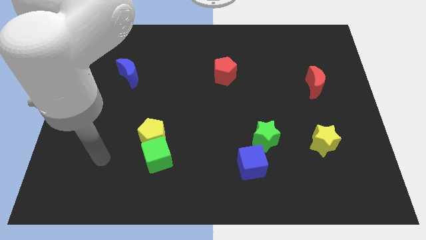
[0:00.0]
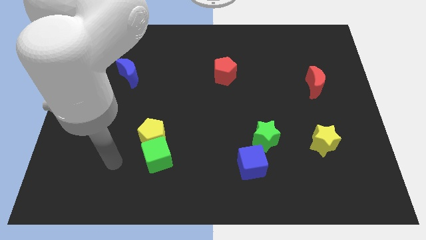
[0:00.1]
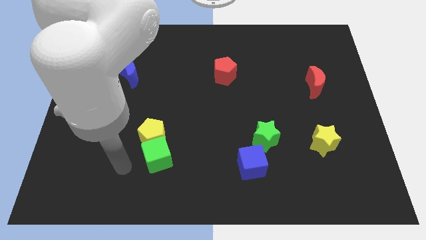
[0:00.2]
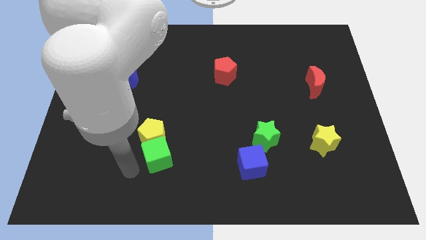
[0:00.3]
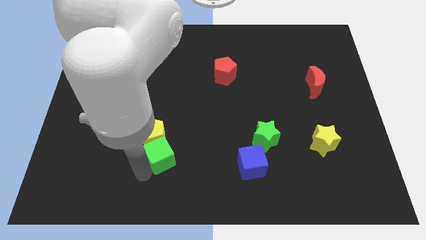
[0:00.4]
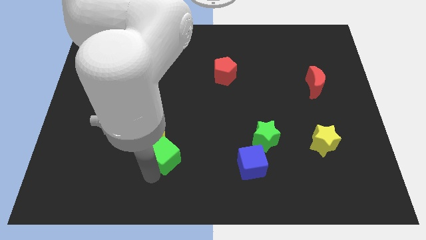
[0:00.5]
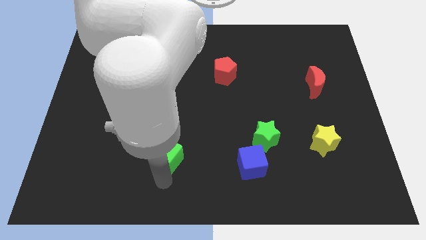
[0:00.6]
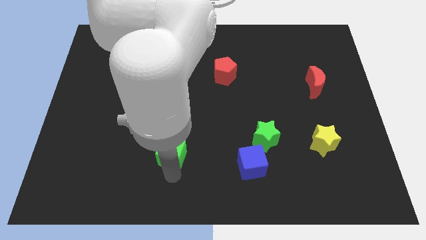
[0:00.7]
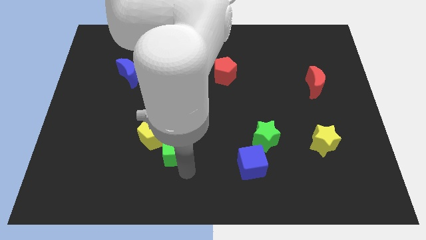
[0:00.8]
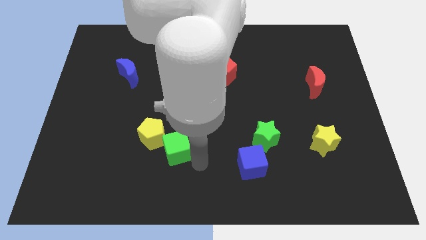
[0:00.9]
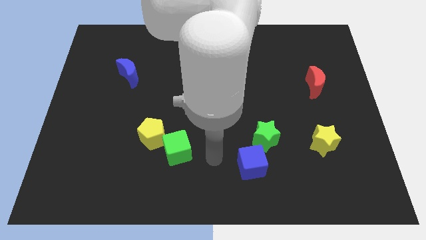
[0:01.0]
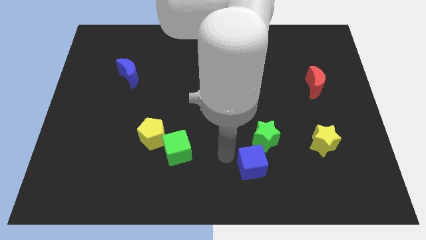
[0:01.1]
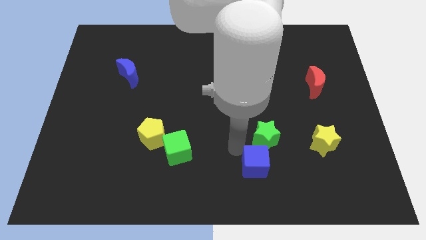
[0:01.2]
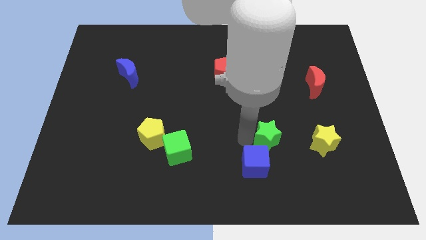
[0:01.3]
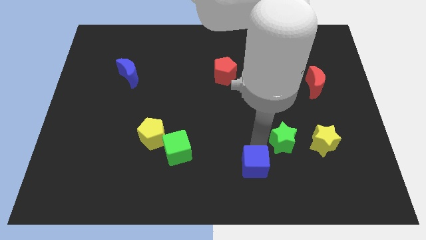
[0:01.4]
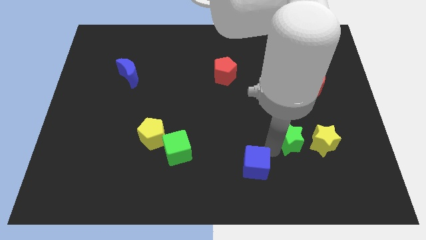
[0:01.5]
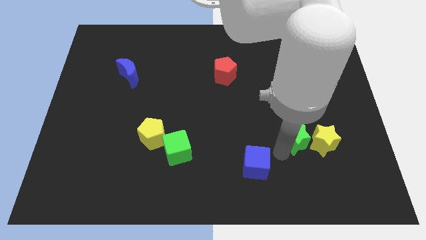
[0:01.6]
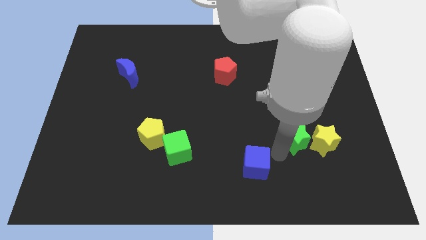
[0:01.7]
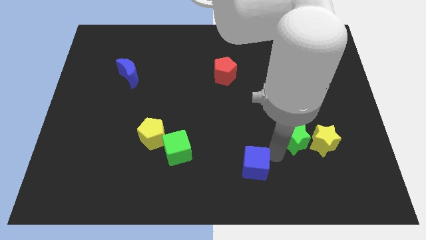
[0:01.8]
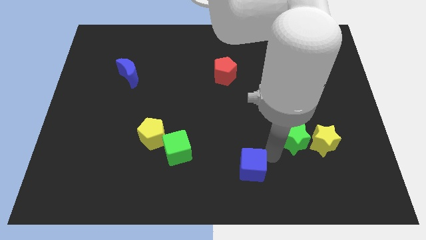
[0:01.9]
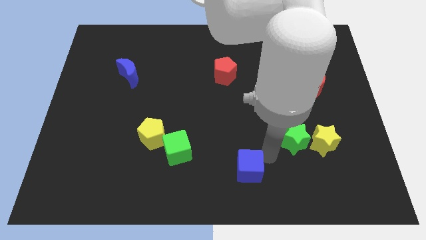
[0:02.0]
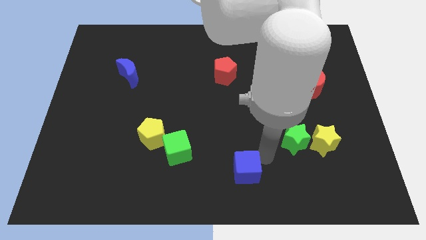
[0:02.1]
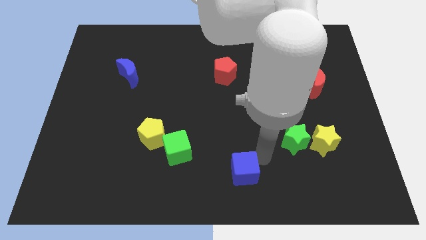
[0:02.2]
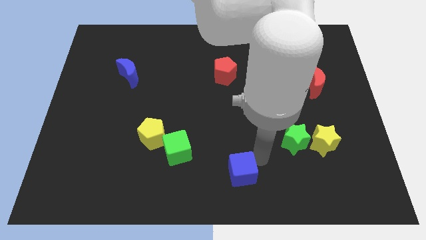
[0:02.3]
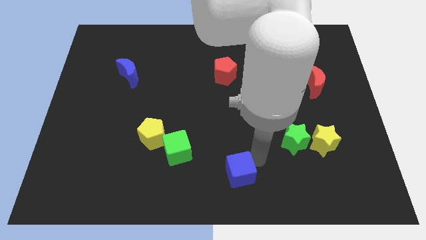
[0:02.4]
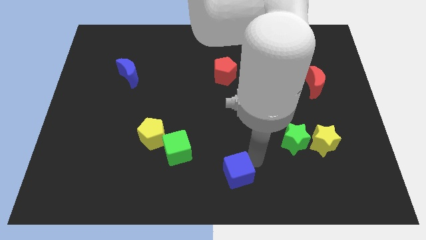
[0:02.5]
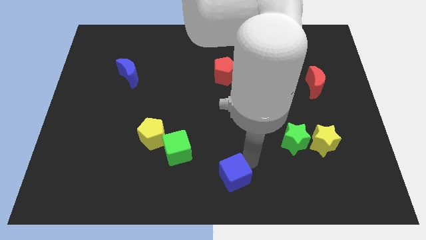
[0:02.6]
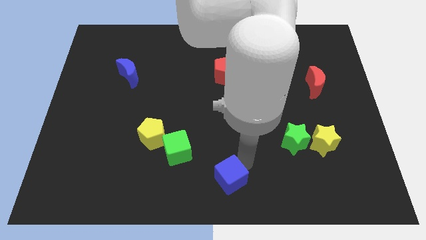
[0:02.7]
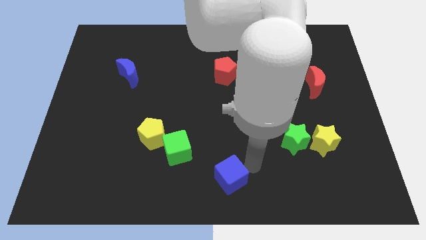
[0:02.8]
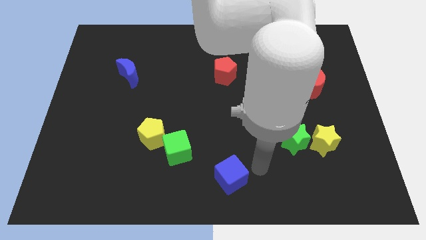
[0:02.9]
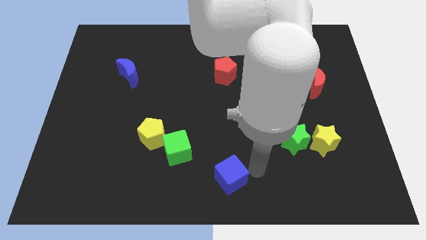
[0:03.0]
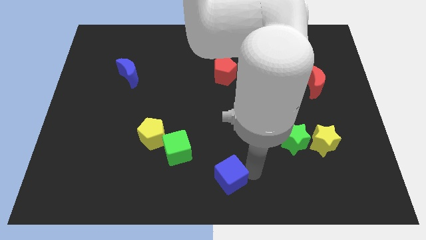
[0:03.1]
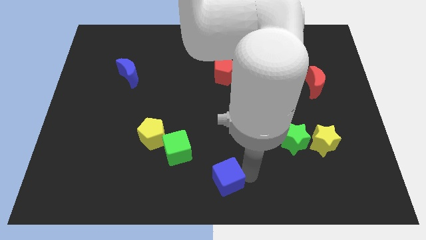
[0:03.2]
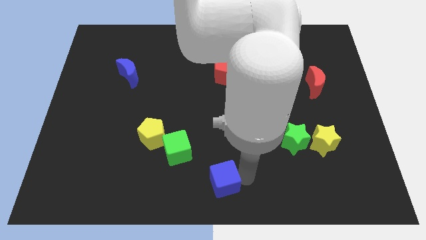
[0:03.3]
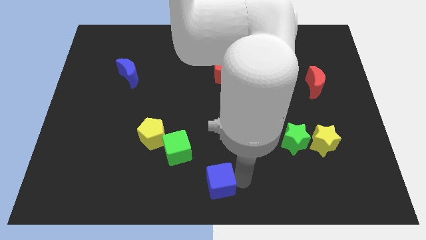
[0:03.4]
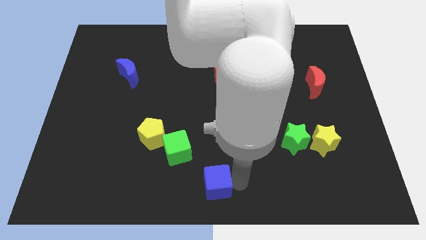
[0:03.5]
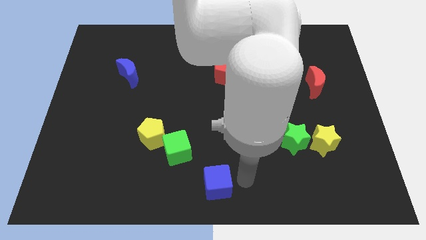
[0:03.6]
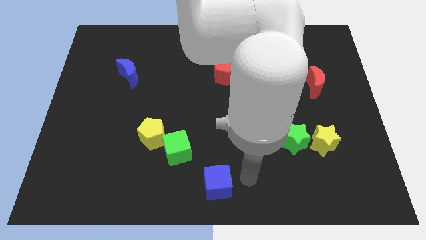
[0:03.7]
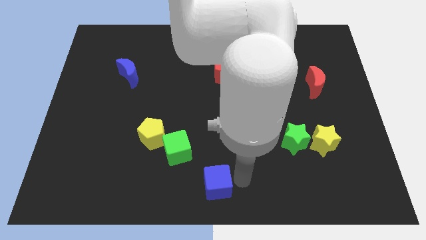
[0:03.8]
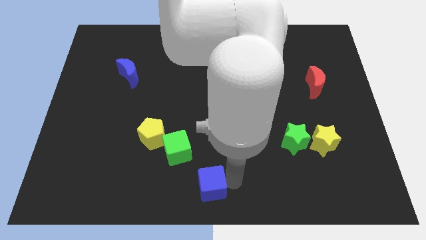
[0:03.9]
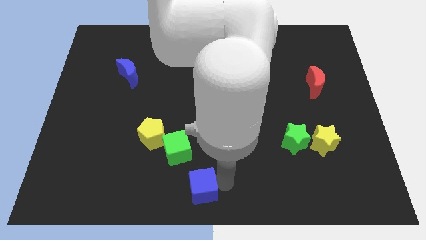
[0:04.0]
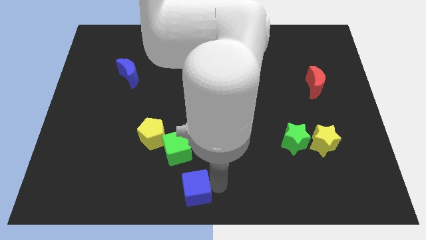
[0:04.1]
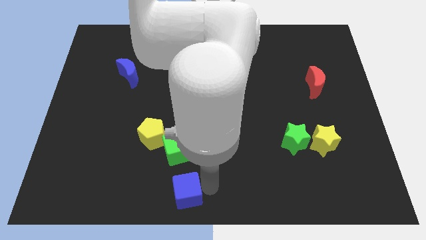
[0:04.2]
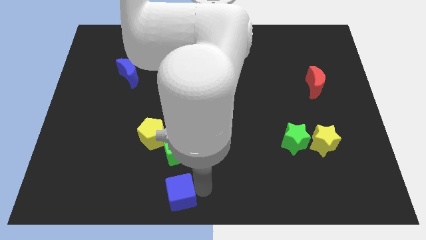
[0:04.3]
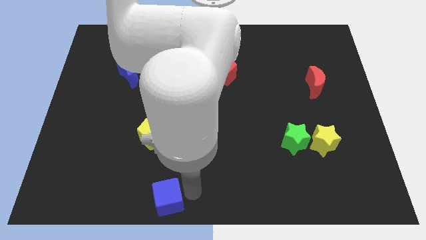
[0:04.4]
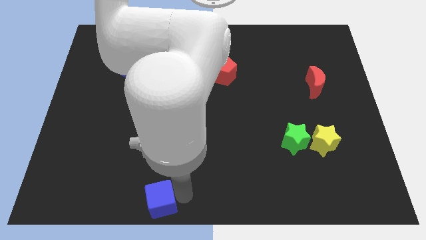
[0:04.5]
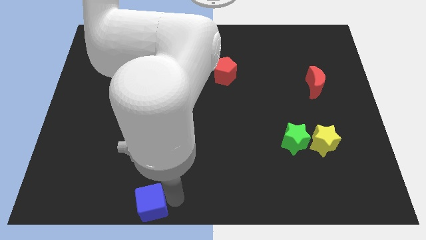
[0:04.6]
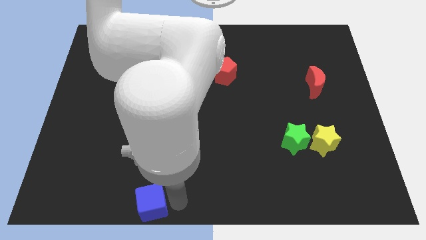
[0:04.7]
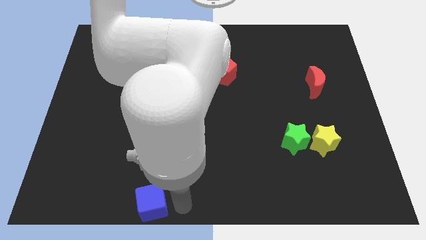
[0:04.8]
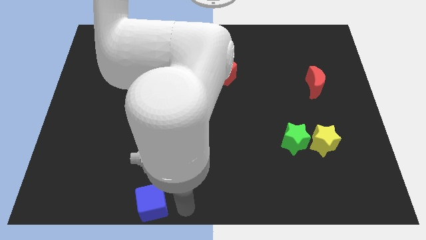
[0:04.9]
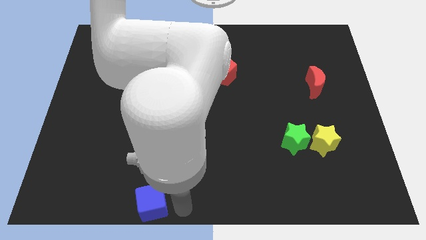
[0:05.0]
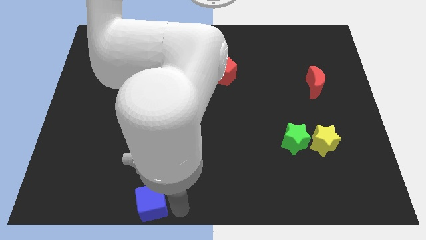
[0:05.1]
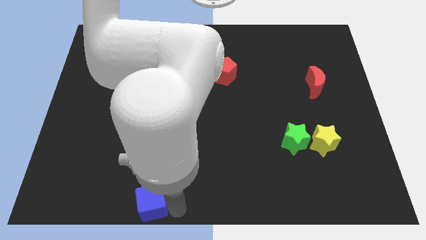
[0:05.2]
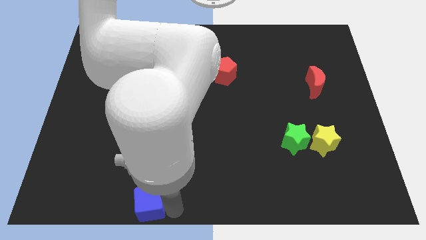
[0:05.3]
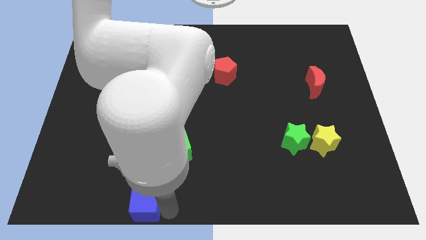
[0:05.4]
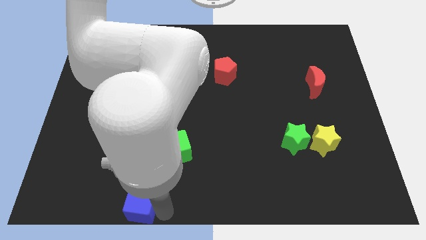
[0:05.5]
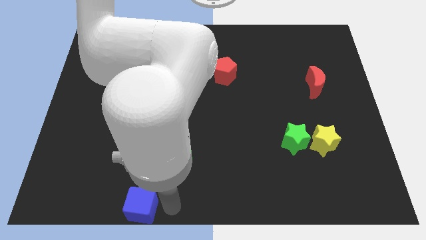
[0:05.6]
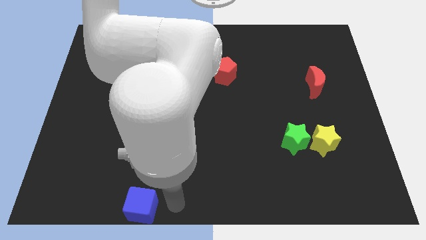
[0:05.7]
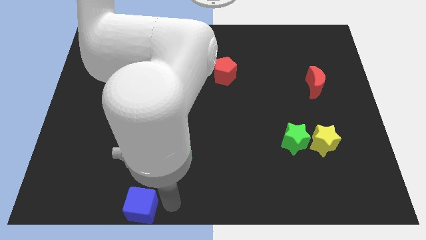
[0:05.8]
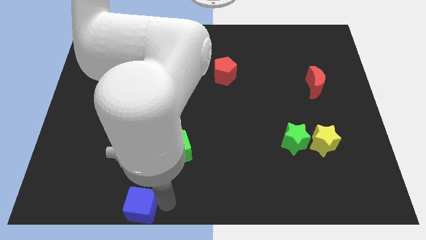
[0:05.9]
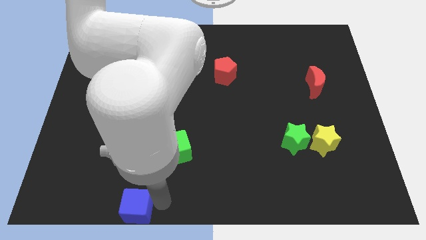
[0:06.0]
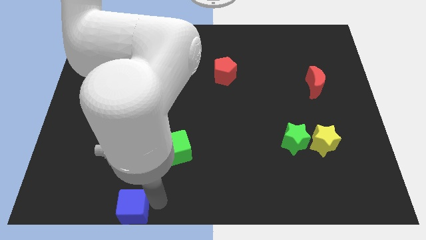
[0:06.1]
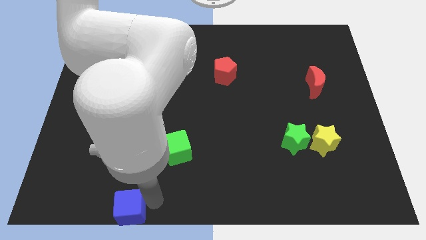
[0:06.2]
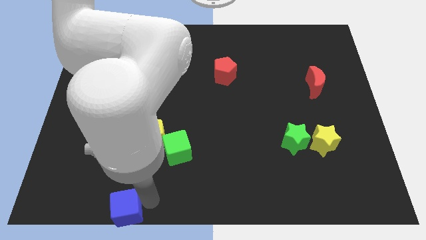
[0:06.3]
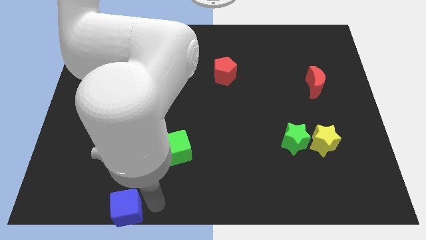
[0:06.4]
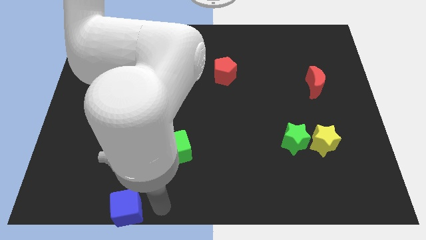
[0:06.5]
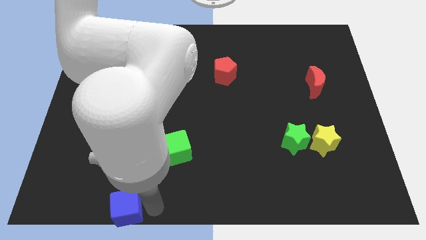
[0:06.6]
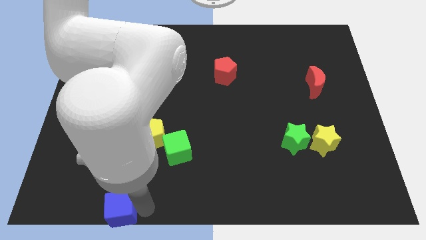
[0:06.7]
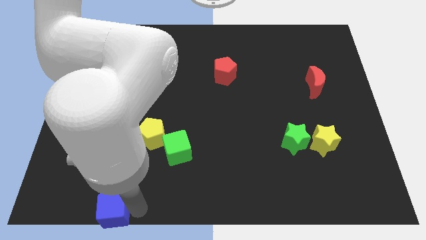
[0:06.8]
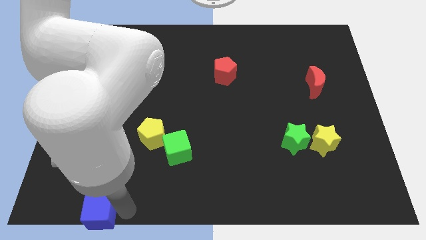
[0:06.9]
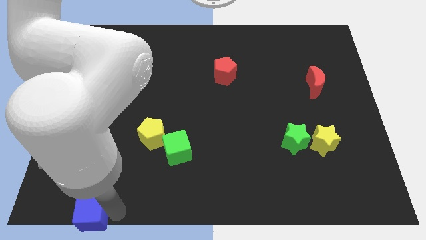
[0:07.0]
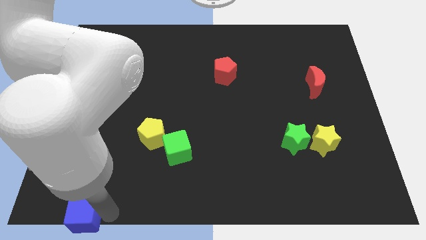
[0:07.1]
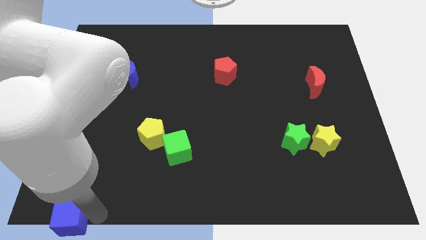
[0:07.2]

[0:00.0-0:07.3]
slide the blue cube to the bottom left of the board
